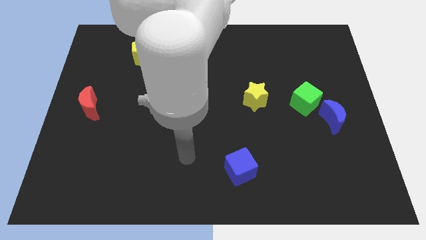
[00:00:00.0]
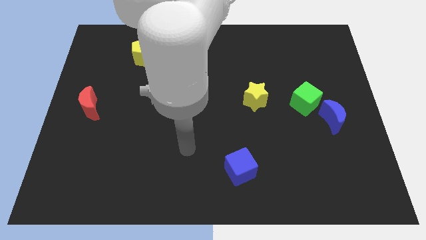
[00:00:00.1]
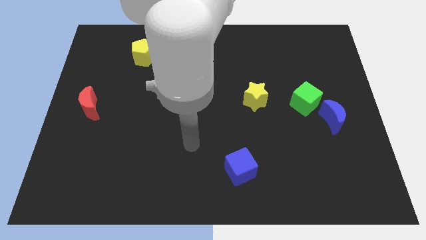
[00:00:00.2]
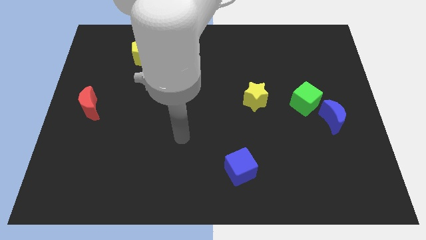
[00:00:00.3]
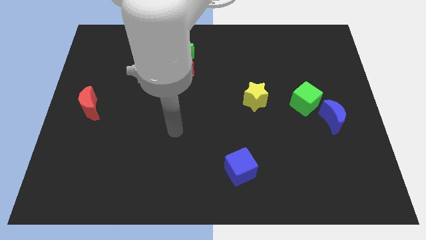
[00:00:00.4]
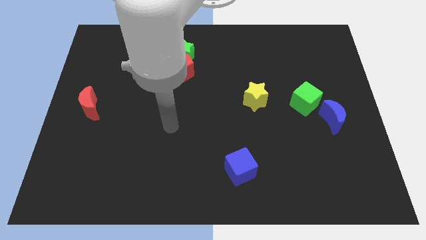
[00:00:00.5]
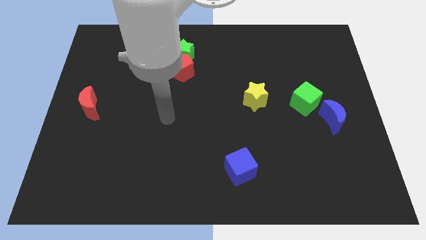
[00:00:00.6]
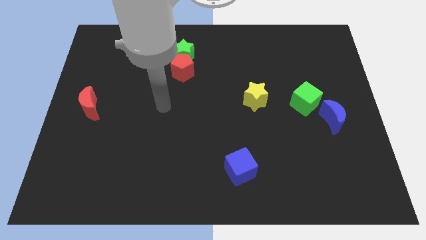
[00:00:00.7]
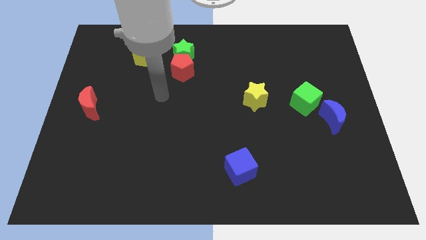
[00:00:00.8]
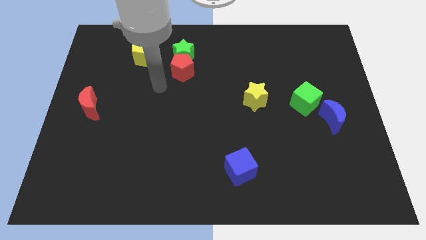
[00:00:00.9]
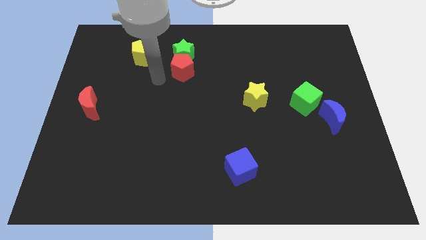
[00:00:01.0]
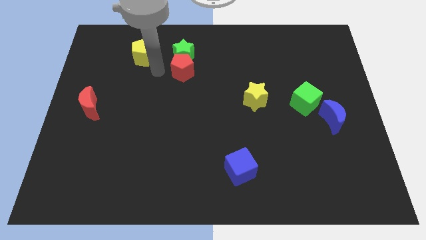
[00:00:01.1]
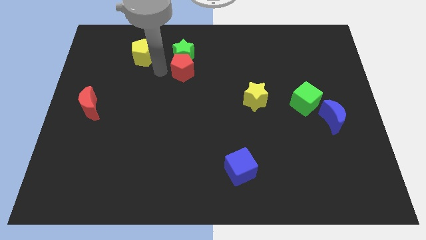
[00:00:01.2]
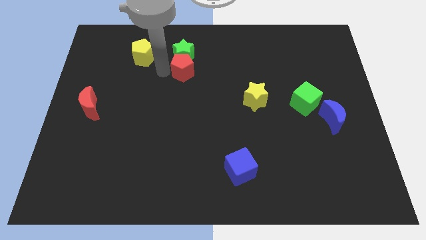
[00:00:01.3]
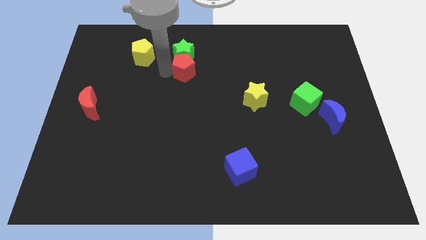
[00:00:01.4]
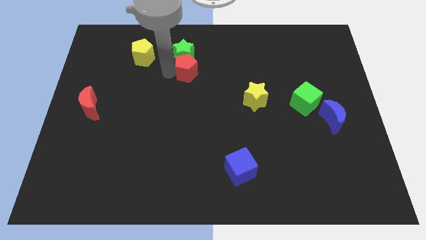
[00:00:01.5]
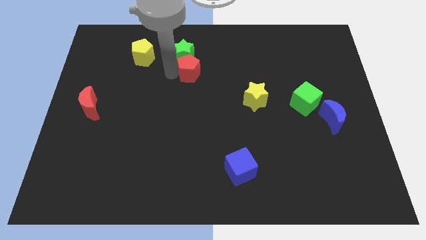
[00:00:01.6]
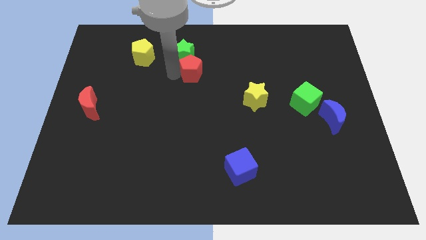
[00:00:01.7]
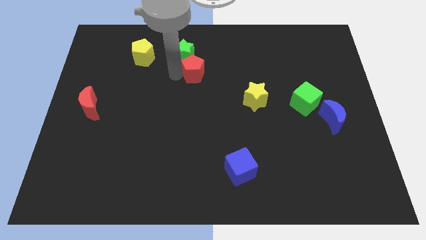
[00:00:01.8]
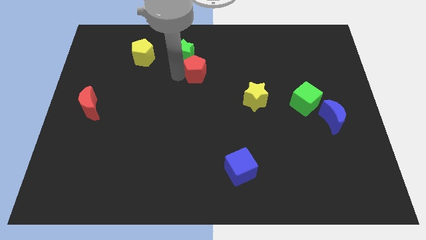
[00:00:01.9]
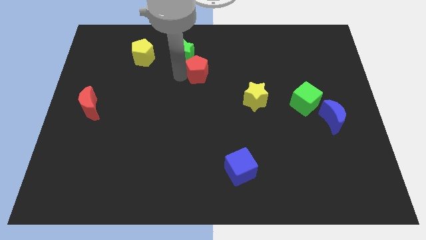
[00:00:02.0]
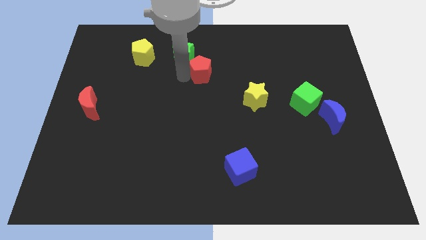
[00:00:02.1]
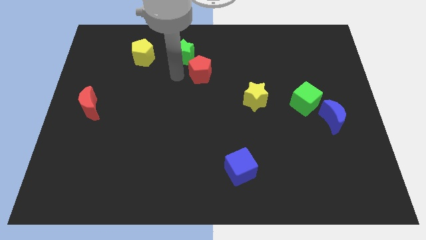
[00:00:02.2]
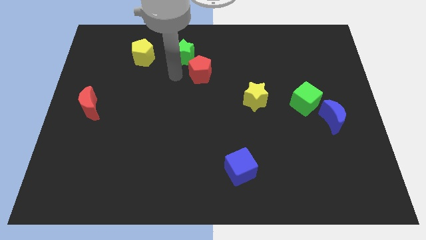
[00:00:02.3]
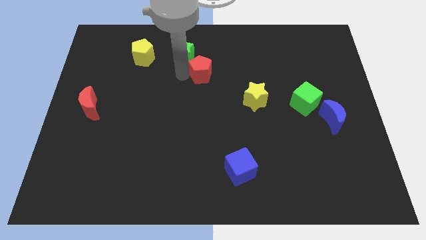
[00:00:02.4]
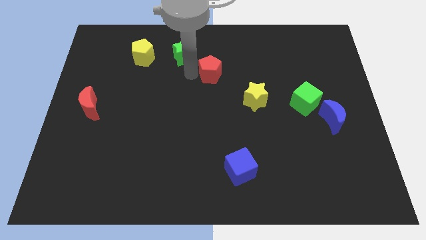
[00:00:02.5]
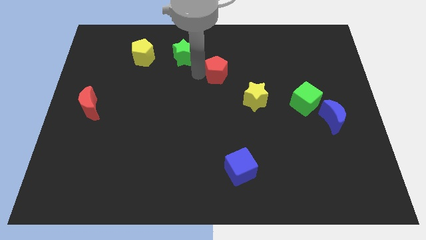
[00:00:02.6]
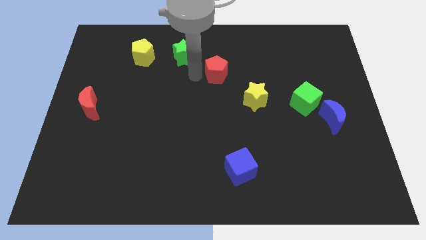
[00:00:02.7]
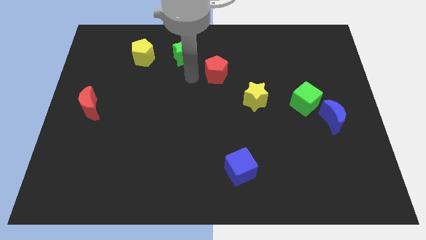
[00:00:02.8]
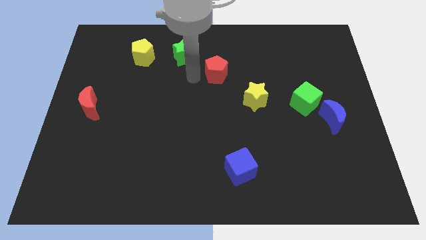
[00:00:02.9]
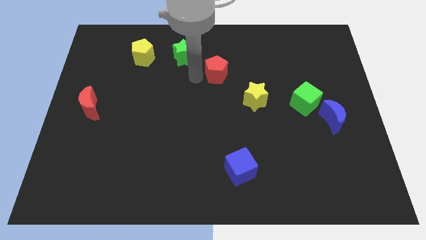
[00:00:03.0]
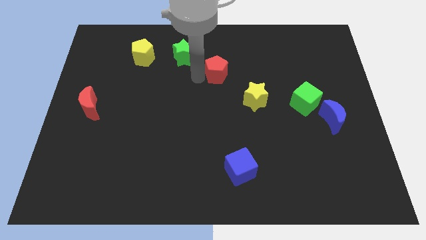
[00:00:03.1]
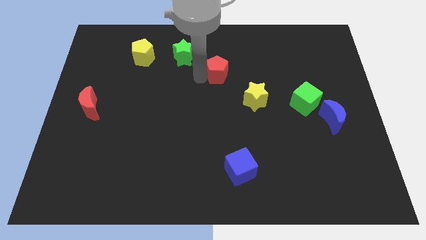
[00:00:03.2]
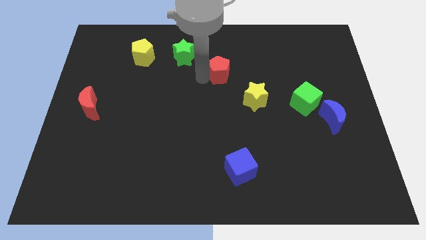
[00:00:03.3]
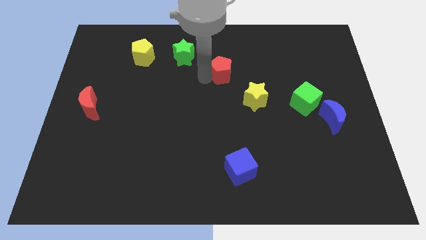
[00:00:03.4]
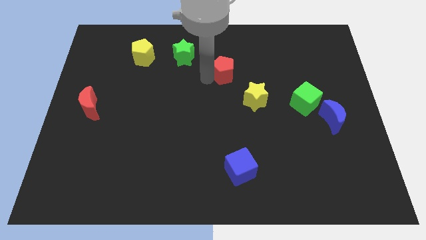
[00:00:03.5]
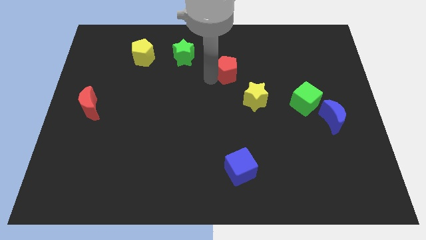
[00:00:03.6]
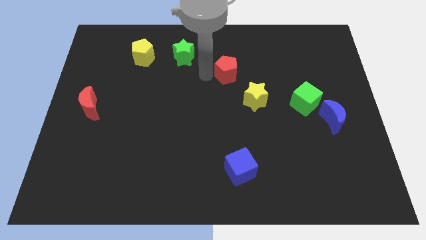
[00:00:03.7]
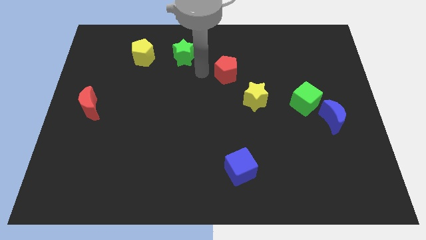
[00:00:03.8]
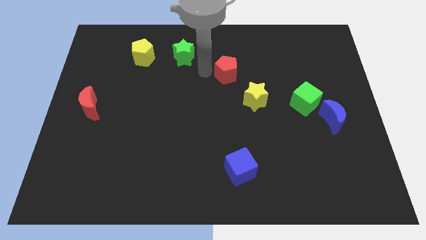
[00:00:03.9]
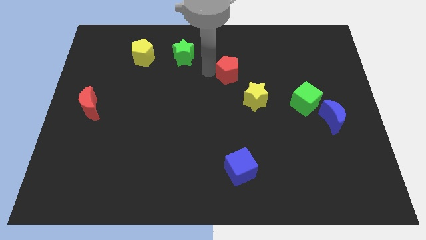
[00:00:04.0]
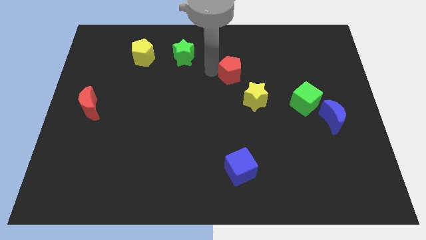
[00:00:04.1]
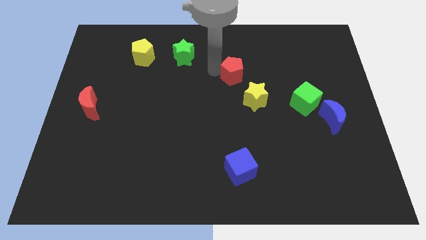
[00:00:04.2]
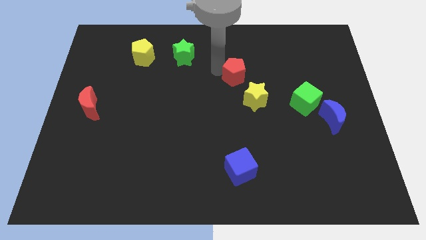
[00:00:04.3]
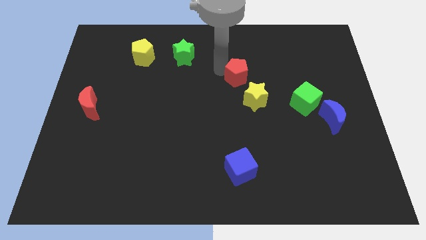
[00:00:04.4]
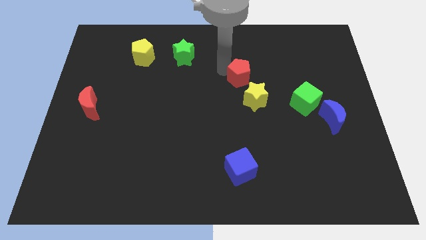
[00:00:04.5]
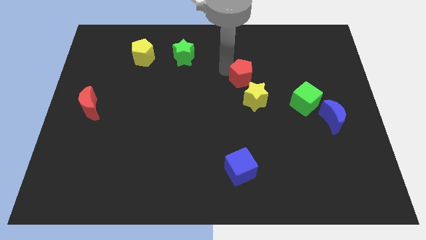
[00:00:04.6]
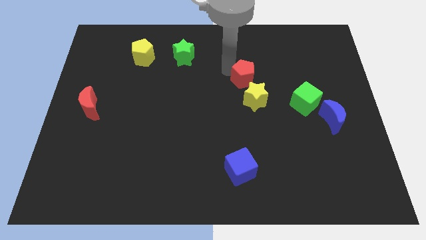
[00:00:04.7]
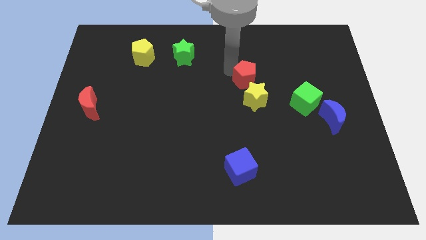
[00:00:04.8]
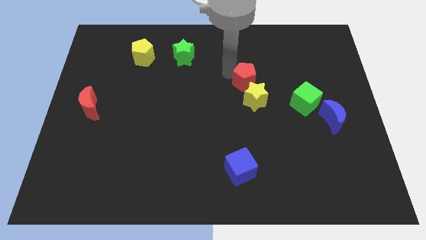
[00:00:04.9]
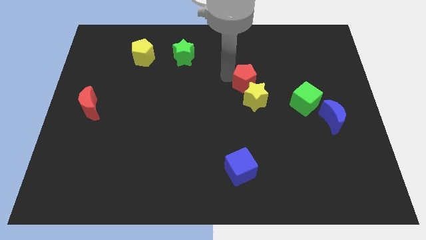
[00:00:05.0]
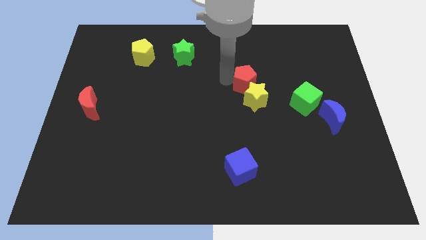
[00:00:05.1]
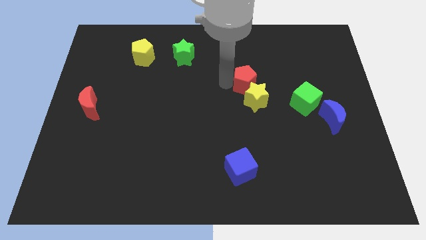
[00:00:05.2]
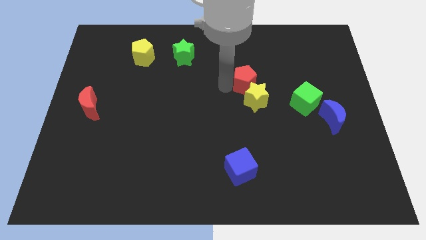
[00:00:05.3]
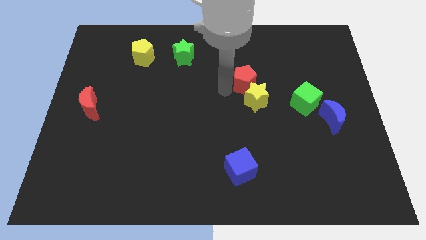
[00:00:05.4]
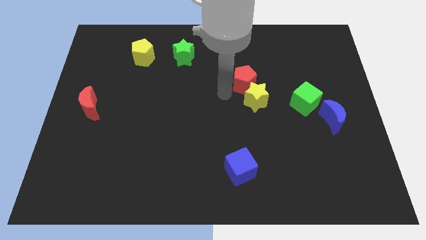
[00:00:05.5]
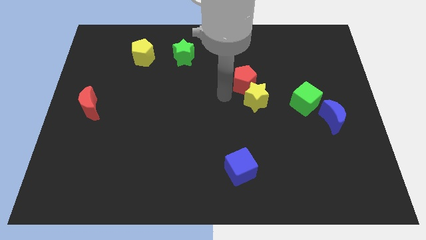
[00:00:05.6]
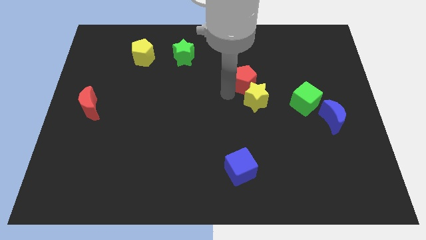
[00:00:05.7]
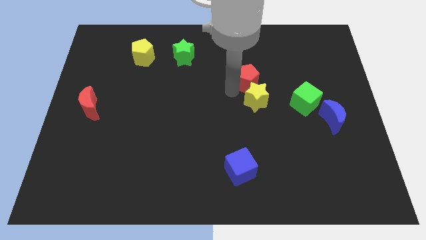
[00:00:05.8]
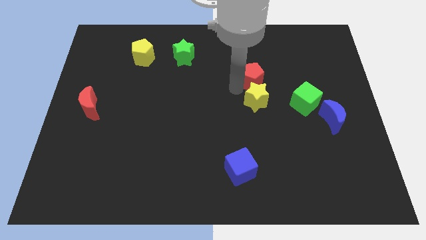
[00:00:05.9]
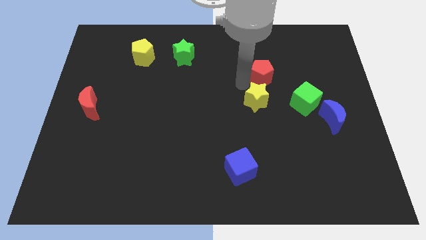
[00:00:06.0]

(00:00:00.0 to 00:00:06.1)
move the red pentagon to the right

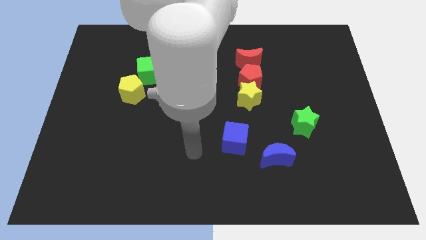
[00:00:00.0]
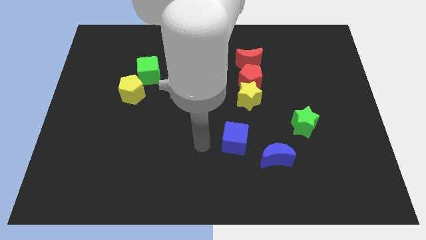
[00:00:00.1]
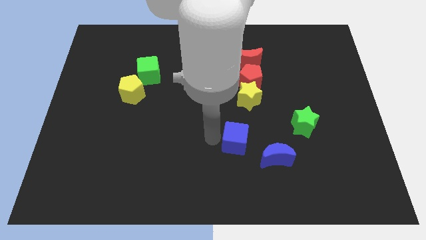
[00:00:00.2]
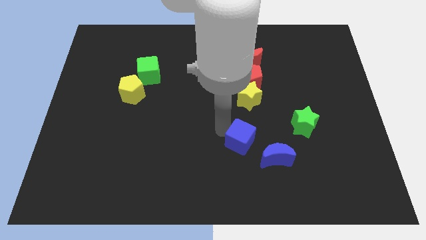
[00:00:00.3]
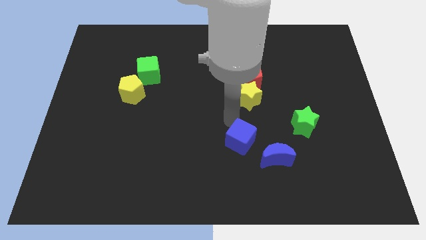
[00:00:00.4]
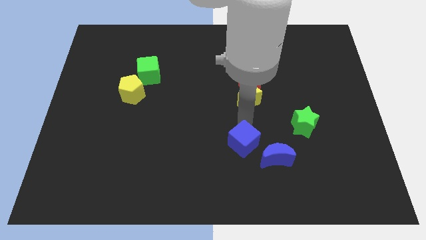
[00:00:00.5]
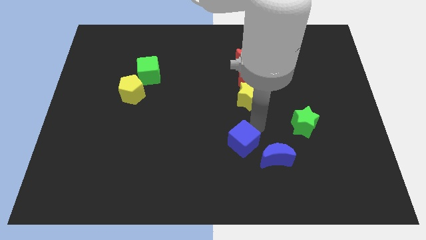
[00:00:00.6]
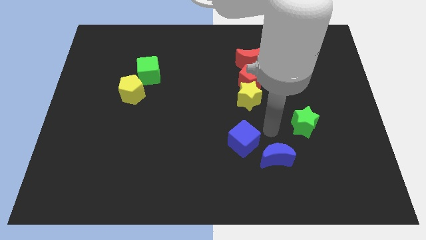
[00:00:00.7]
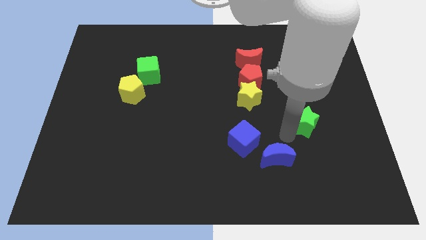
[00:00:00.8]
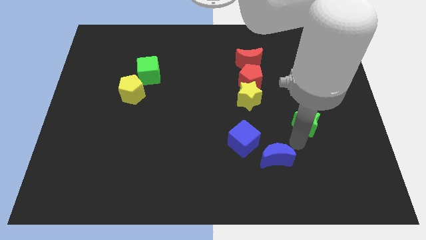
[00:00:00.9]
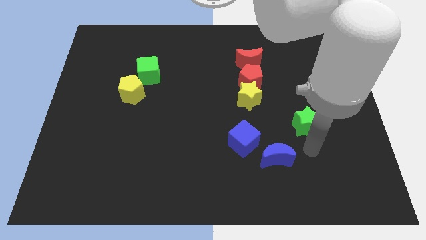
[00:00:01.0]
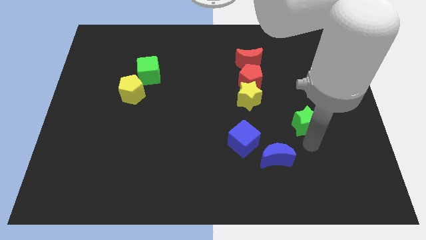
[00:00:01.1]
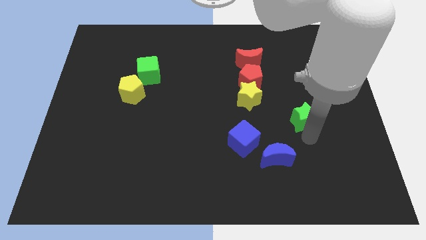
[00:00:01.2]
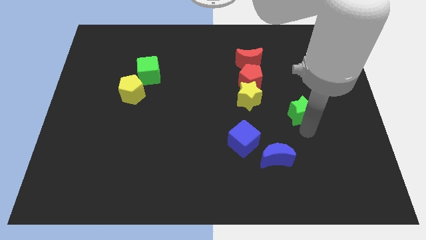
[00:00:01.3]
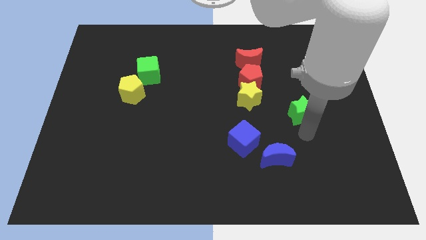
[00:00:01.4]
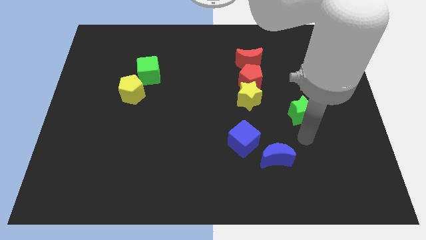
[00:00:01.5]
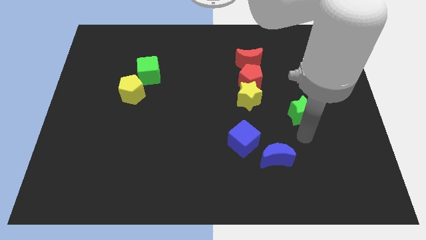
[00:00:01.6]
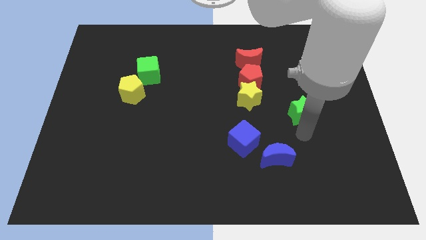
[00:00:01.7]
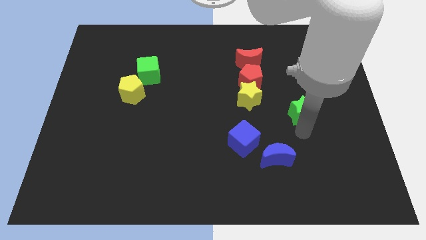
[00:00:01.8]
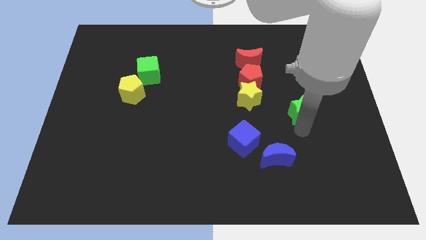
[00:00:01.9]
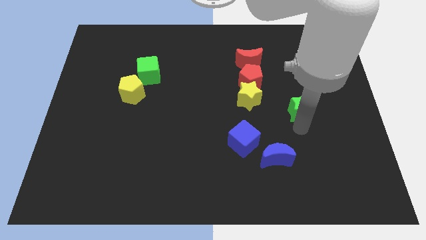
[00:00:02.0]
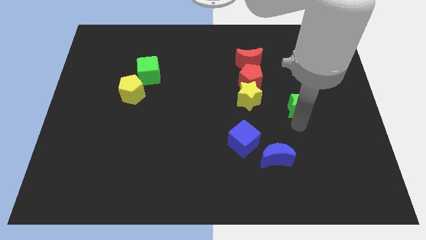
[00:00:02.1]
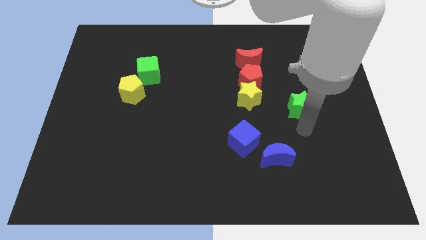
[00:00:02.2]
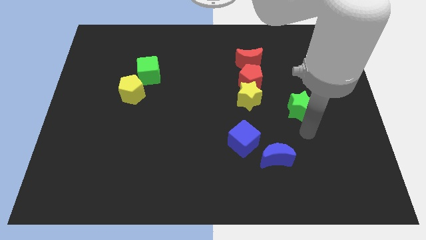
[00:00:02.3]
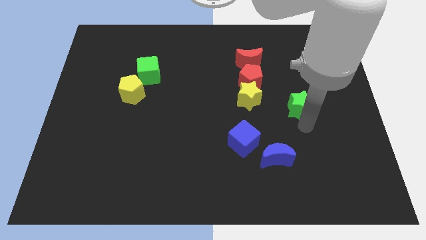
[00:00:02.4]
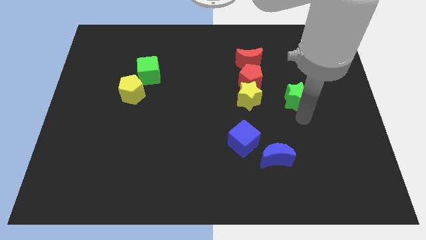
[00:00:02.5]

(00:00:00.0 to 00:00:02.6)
move the green star upwards a little bit
